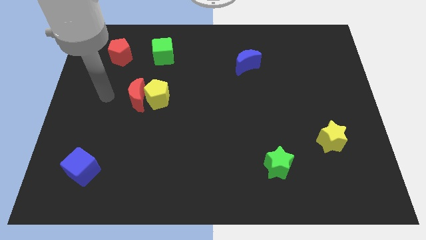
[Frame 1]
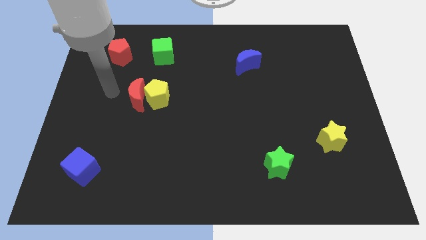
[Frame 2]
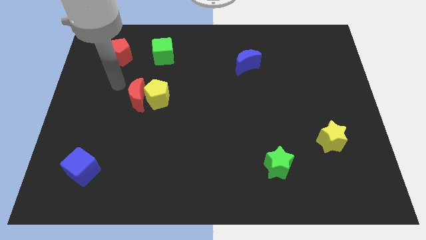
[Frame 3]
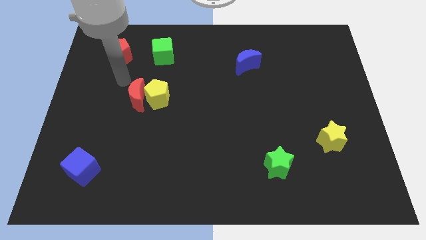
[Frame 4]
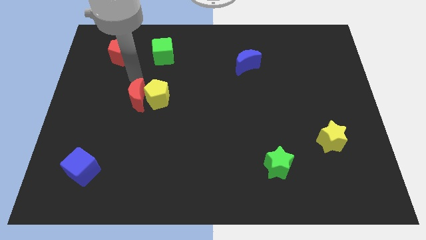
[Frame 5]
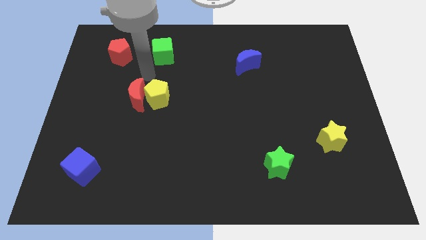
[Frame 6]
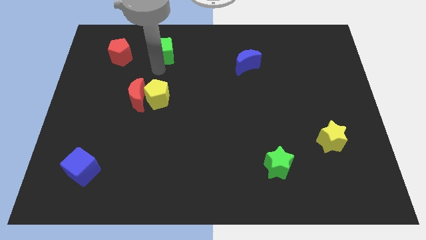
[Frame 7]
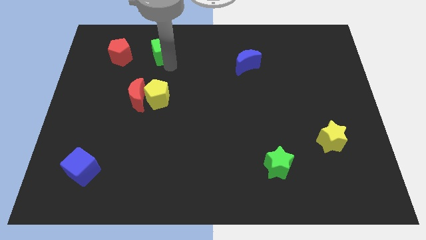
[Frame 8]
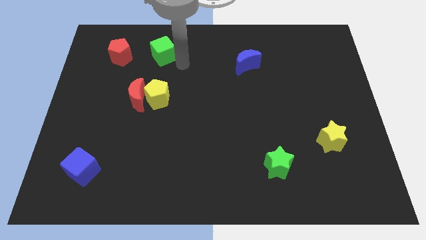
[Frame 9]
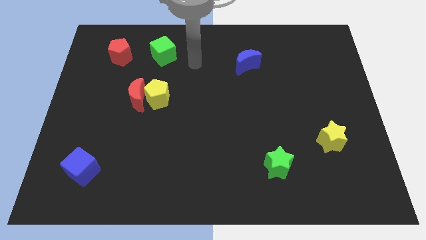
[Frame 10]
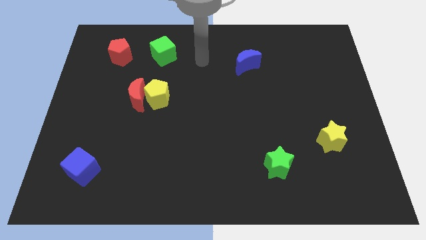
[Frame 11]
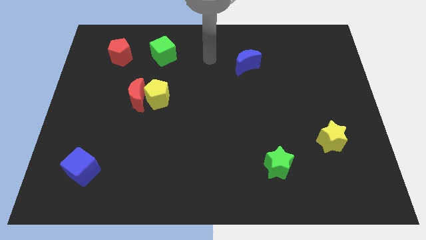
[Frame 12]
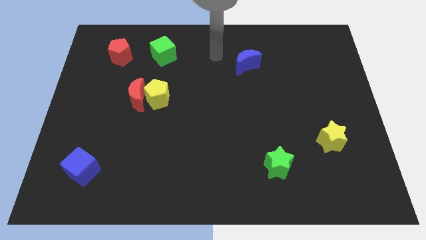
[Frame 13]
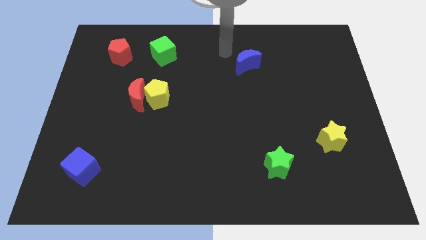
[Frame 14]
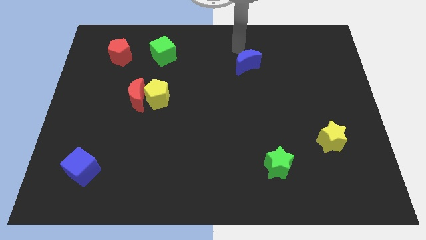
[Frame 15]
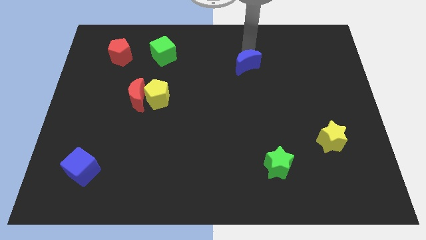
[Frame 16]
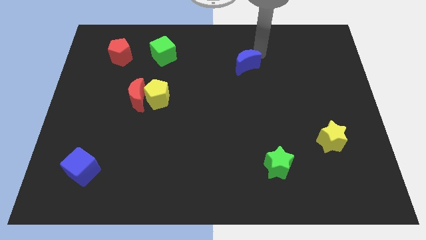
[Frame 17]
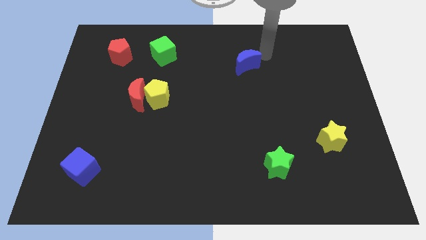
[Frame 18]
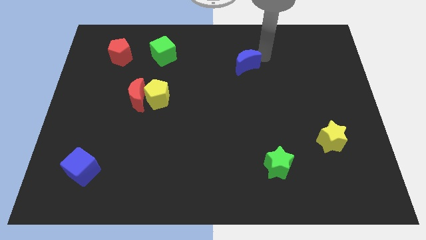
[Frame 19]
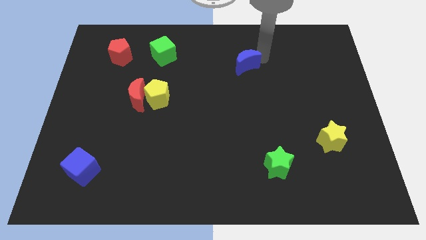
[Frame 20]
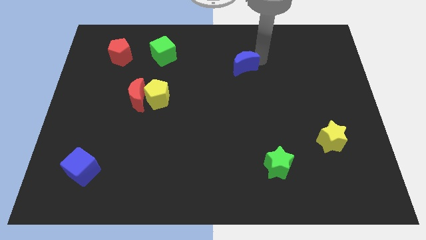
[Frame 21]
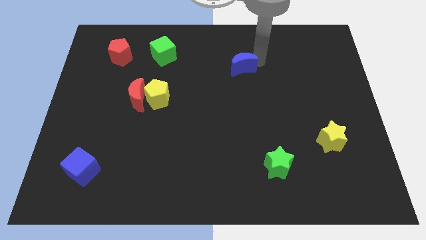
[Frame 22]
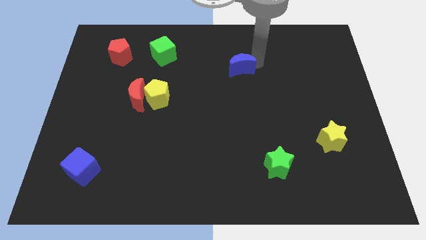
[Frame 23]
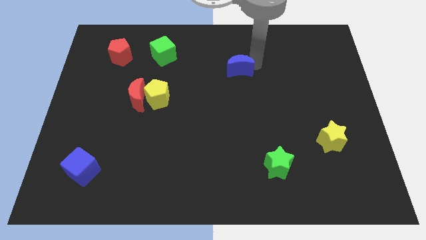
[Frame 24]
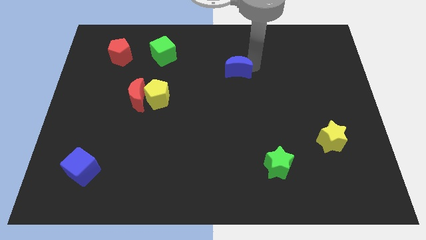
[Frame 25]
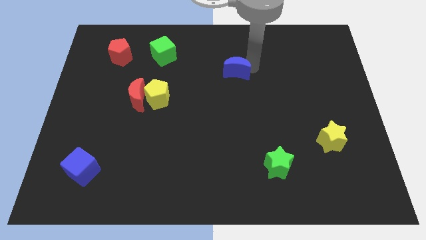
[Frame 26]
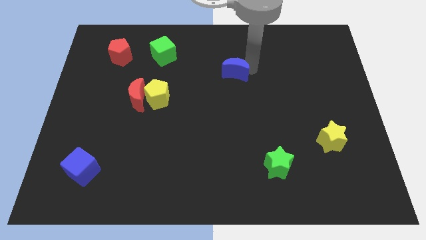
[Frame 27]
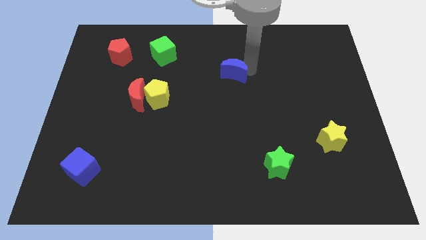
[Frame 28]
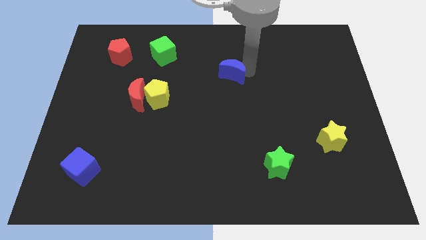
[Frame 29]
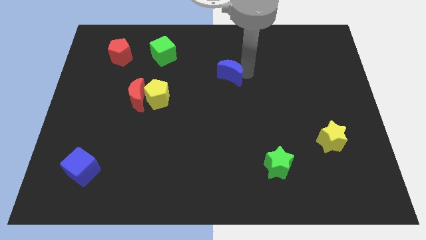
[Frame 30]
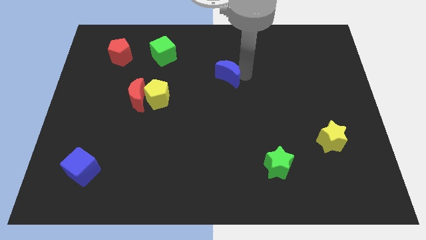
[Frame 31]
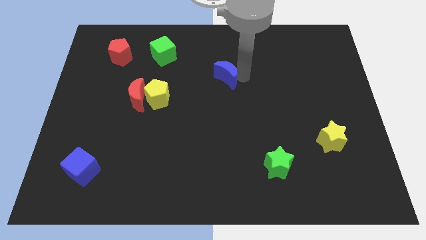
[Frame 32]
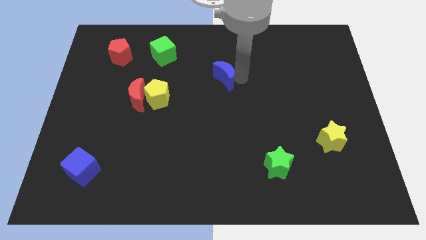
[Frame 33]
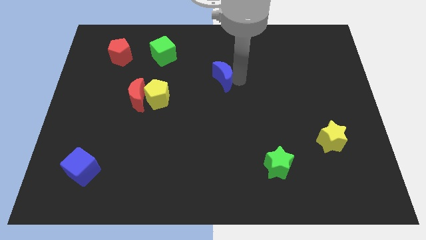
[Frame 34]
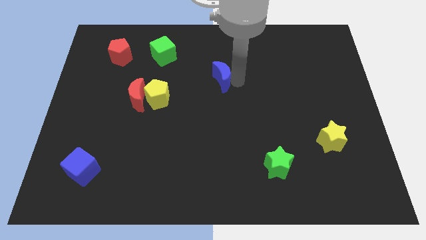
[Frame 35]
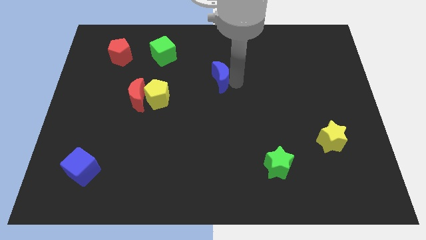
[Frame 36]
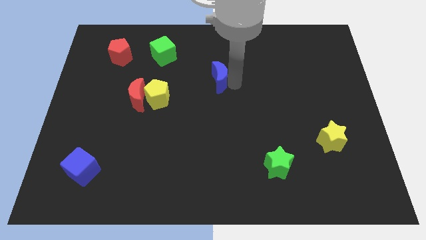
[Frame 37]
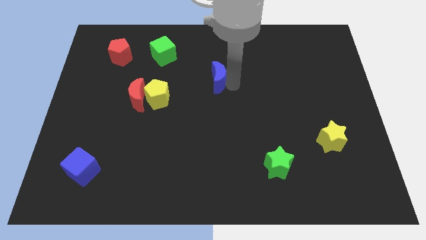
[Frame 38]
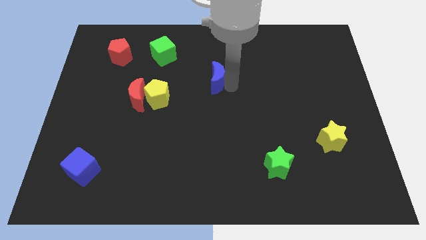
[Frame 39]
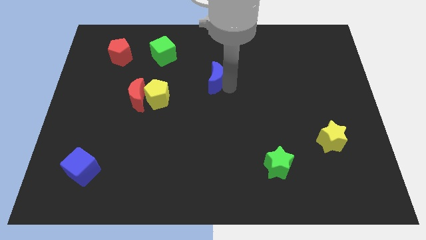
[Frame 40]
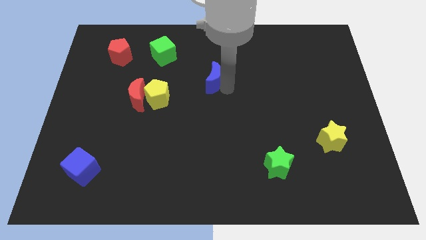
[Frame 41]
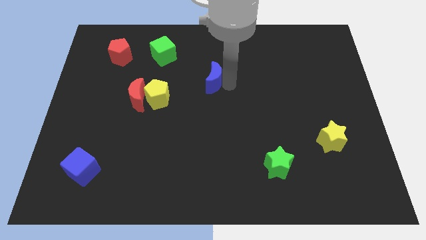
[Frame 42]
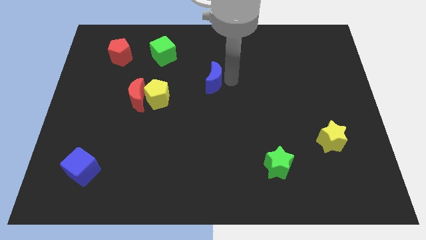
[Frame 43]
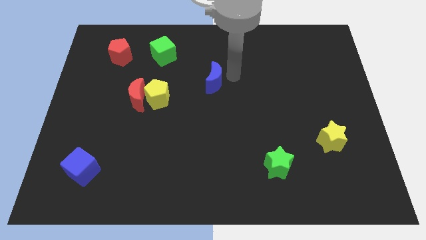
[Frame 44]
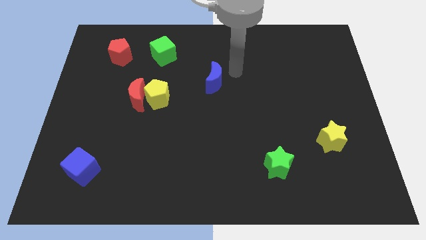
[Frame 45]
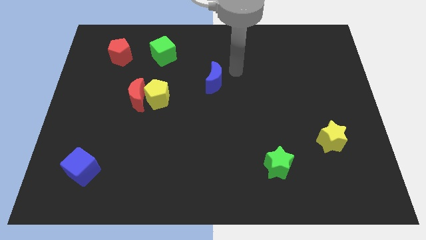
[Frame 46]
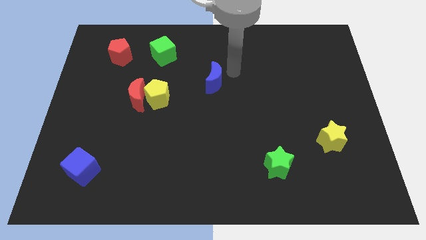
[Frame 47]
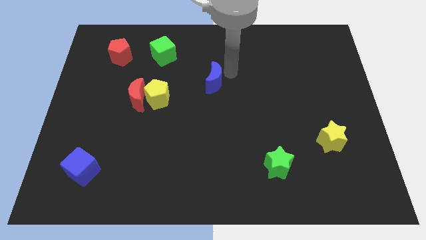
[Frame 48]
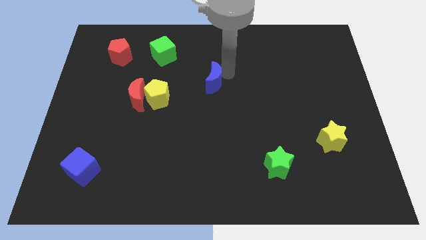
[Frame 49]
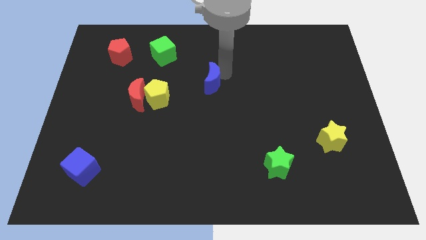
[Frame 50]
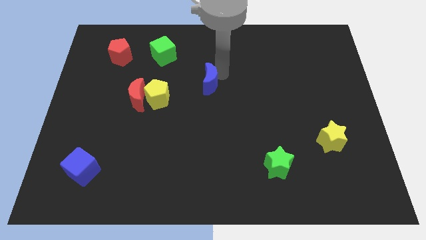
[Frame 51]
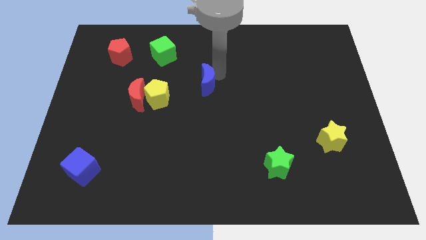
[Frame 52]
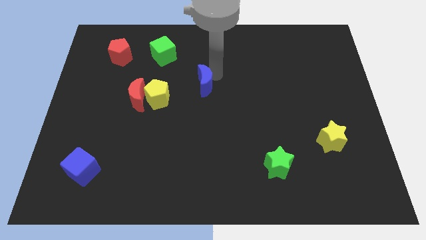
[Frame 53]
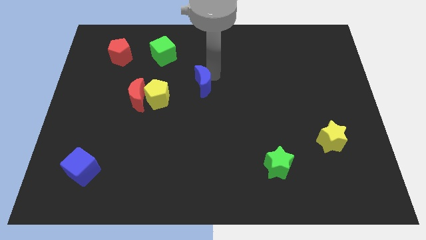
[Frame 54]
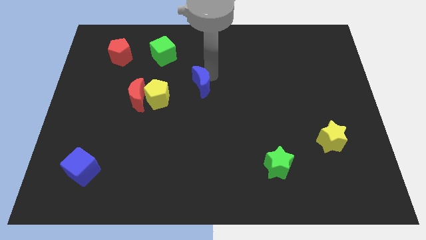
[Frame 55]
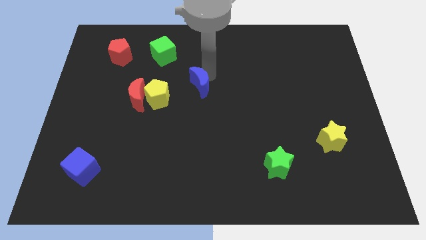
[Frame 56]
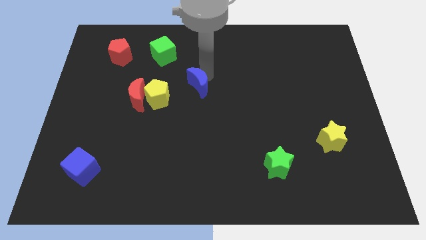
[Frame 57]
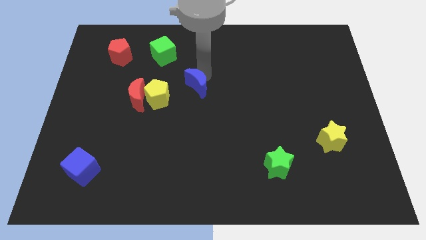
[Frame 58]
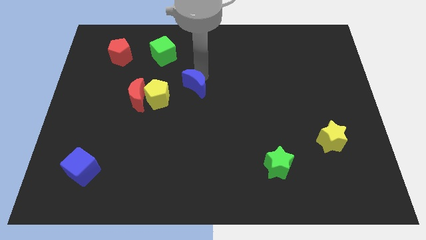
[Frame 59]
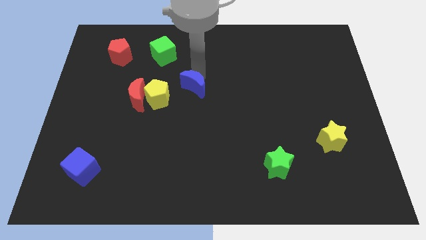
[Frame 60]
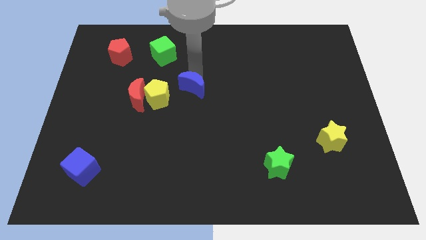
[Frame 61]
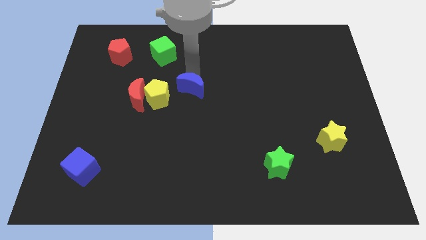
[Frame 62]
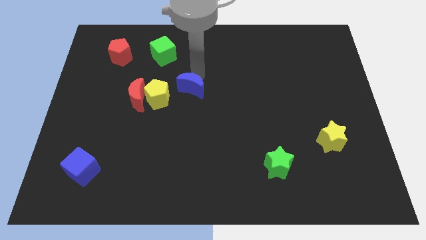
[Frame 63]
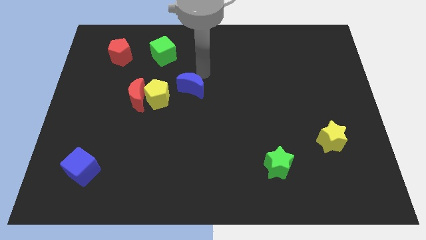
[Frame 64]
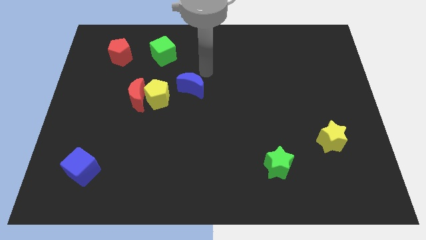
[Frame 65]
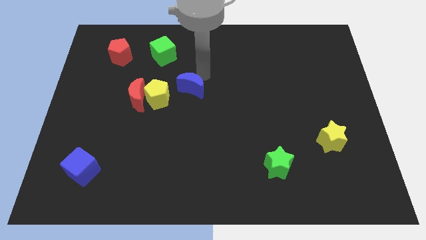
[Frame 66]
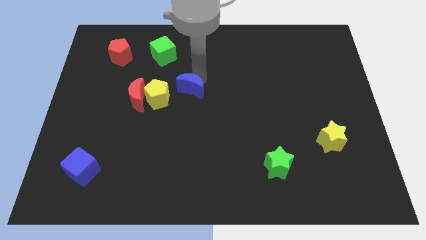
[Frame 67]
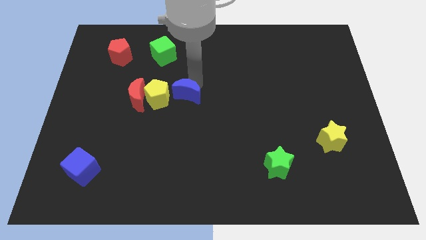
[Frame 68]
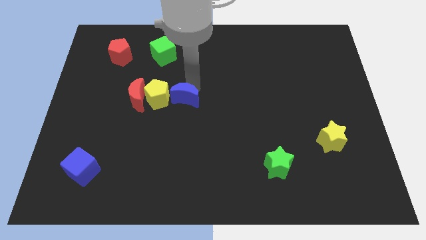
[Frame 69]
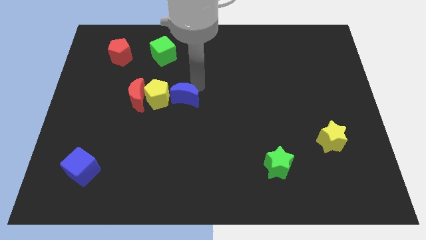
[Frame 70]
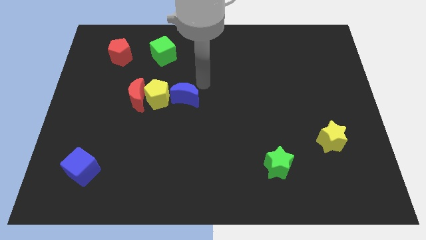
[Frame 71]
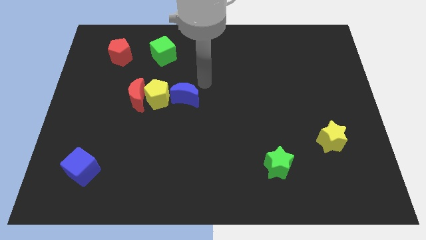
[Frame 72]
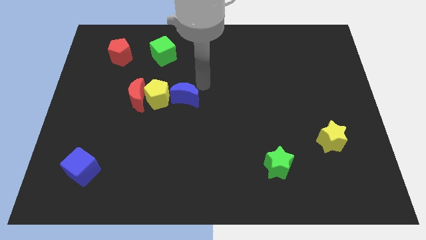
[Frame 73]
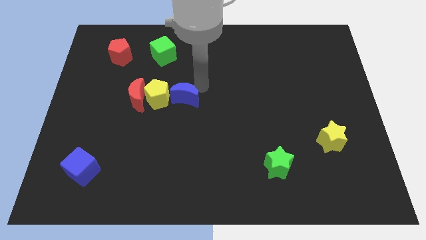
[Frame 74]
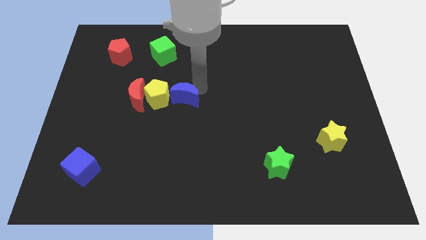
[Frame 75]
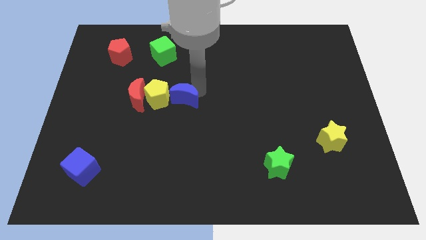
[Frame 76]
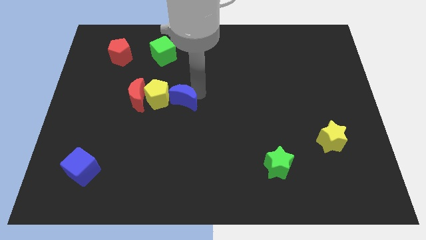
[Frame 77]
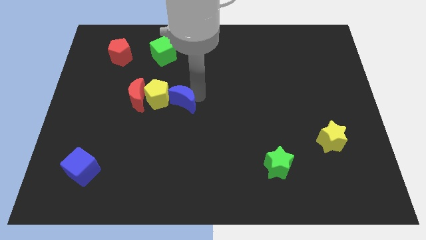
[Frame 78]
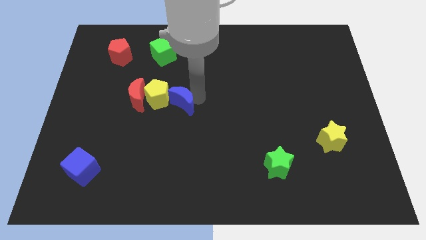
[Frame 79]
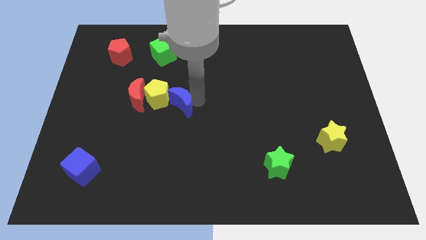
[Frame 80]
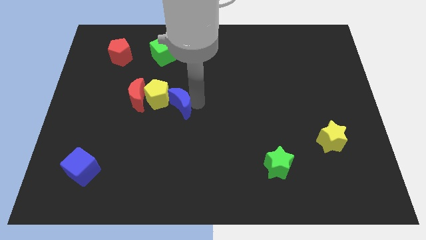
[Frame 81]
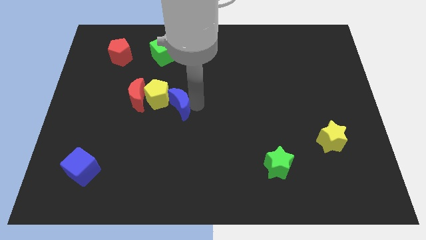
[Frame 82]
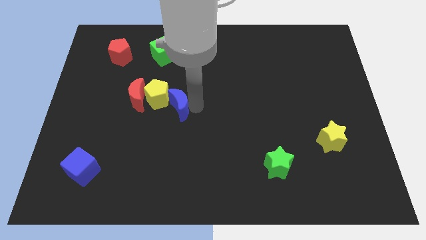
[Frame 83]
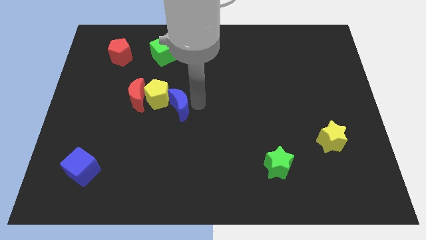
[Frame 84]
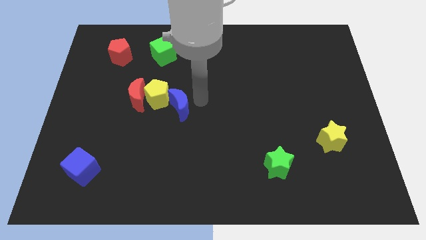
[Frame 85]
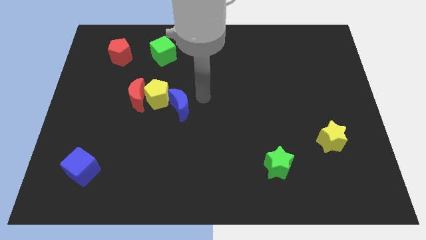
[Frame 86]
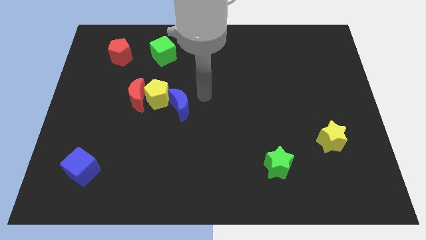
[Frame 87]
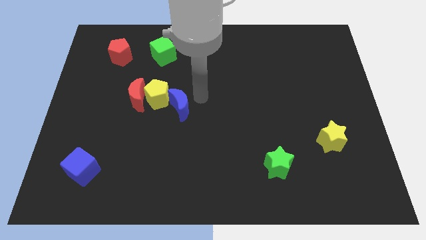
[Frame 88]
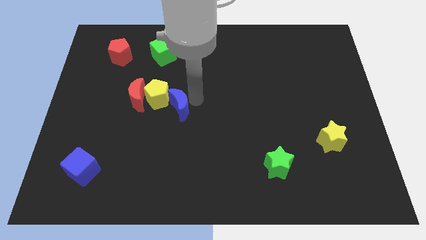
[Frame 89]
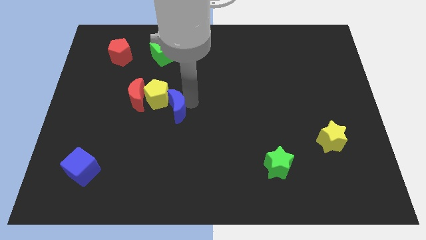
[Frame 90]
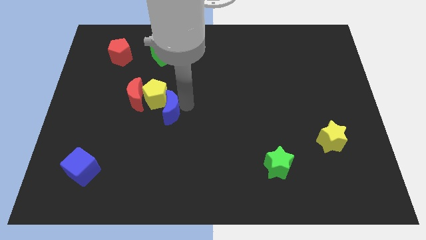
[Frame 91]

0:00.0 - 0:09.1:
move the blue moon below the yellow pentagon
